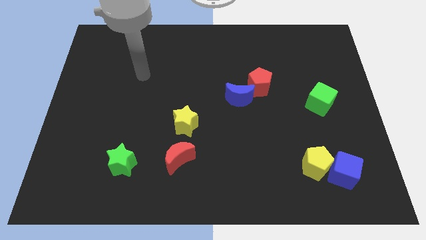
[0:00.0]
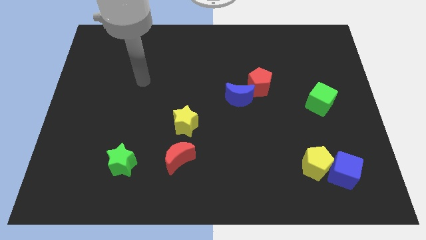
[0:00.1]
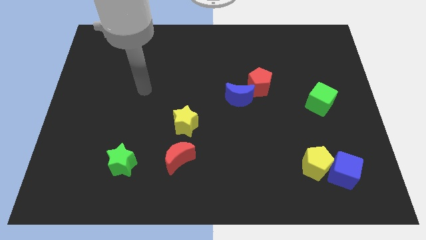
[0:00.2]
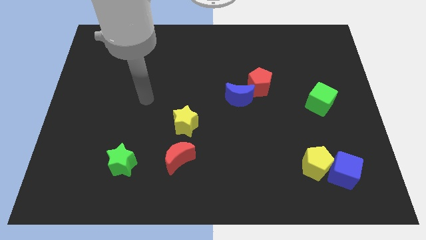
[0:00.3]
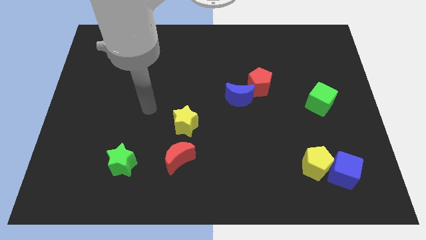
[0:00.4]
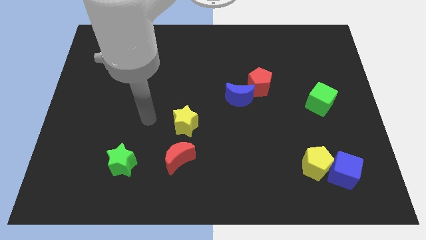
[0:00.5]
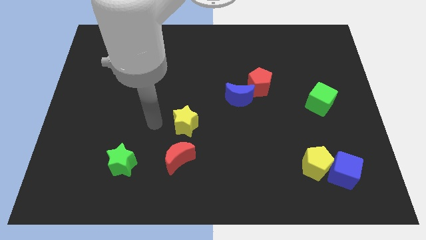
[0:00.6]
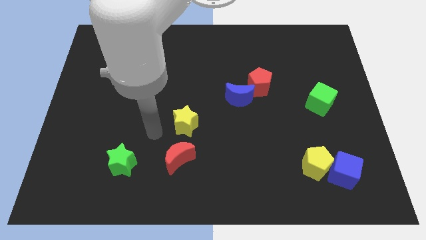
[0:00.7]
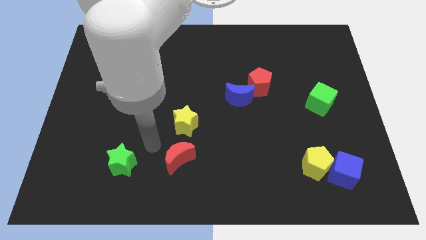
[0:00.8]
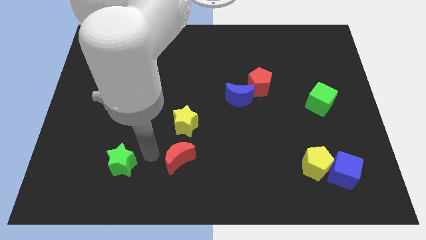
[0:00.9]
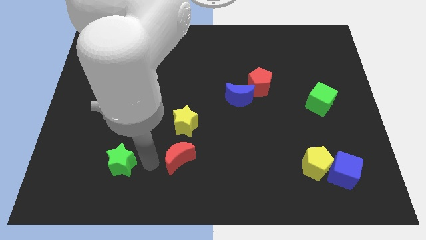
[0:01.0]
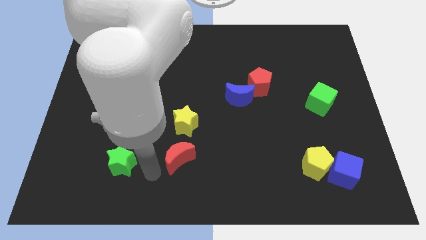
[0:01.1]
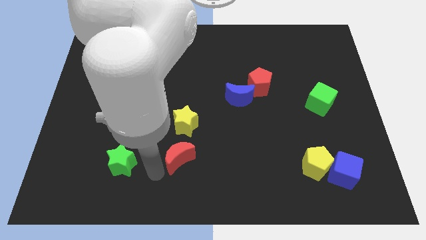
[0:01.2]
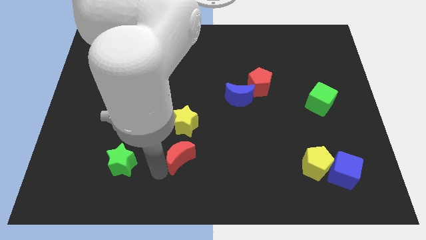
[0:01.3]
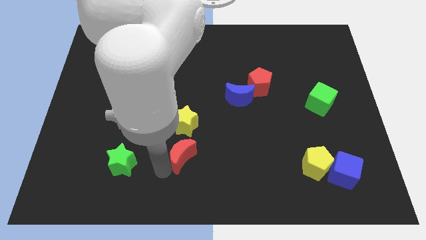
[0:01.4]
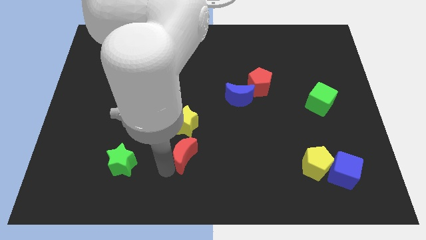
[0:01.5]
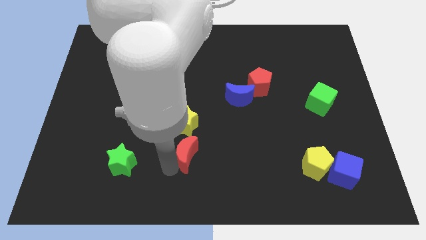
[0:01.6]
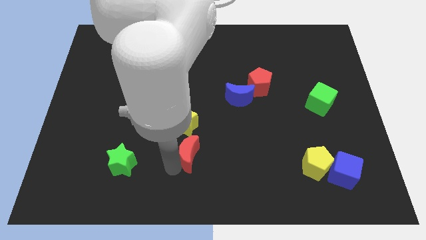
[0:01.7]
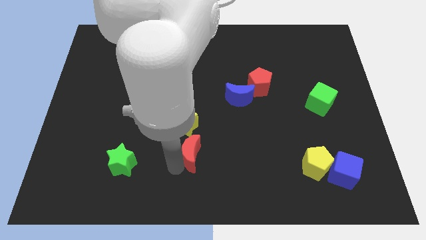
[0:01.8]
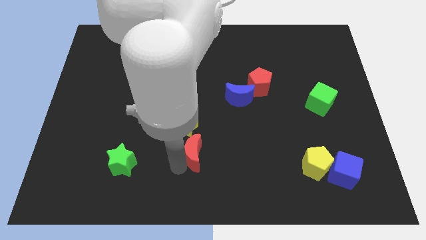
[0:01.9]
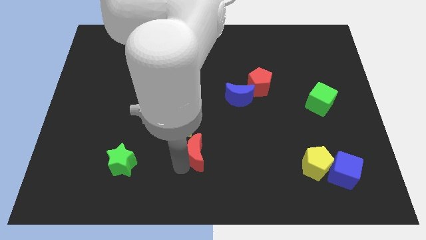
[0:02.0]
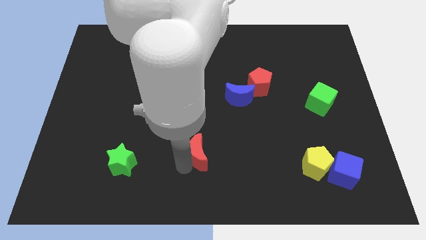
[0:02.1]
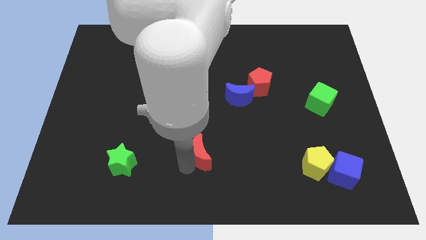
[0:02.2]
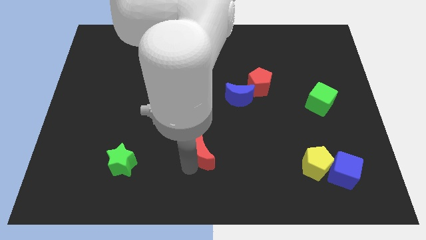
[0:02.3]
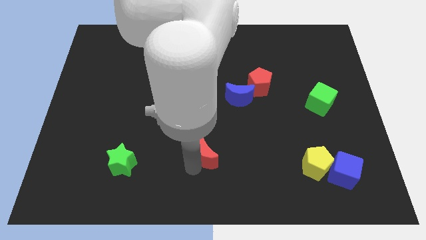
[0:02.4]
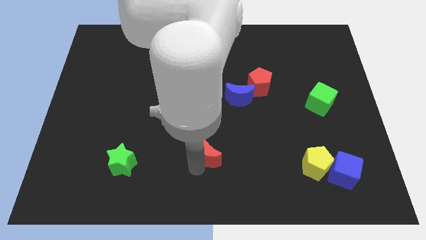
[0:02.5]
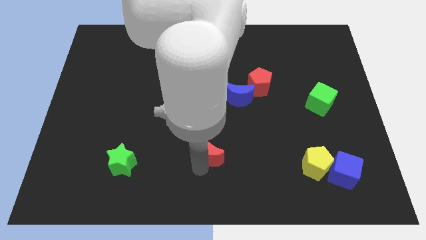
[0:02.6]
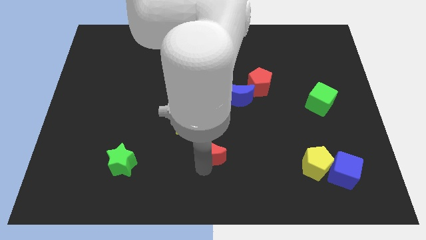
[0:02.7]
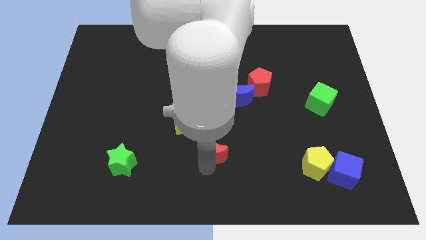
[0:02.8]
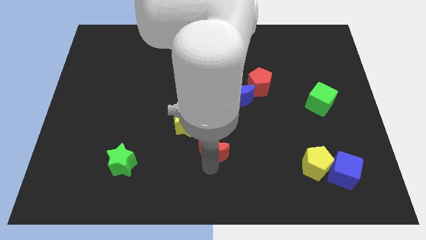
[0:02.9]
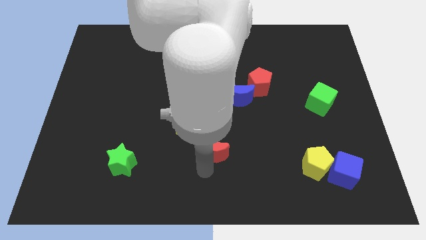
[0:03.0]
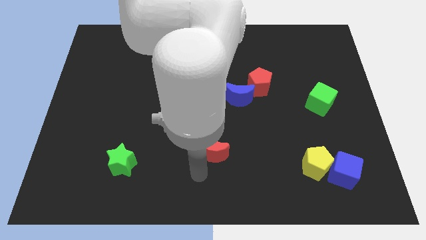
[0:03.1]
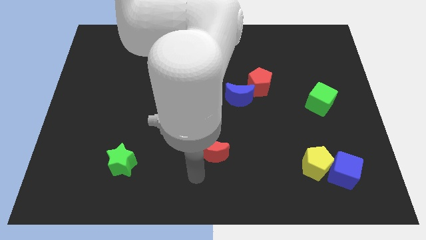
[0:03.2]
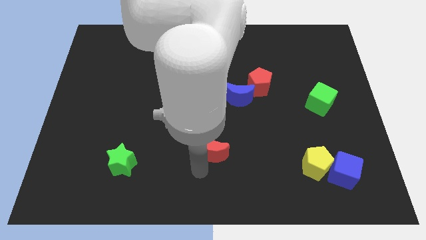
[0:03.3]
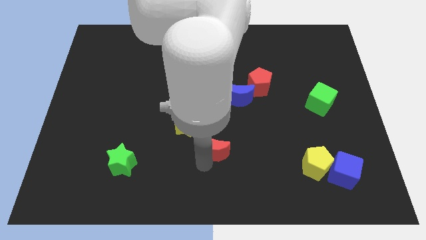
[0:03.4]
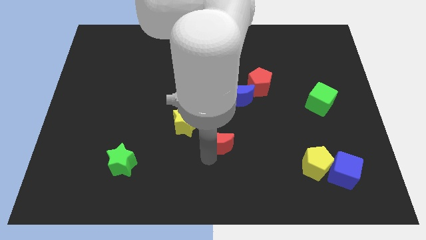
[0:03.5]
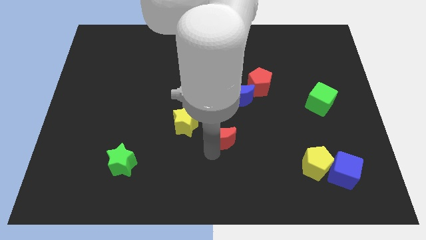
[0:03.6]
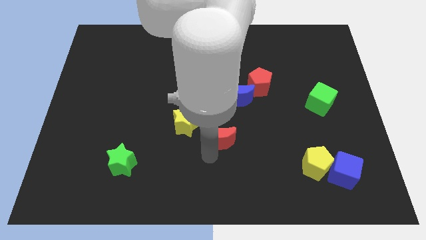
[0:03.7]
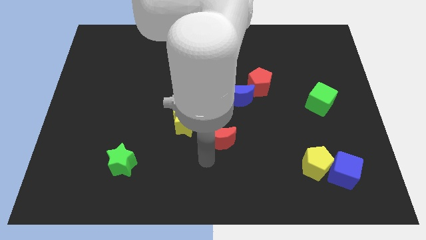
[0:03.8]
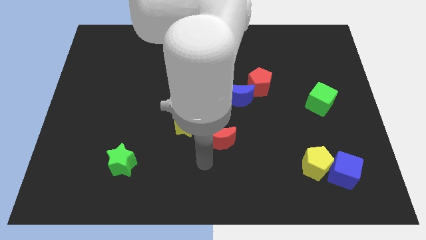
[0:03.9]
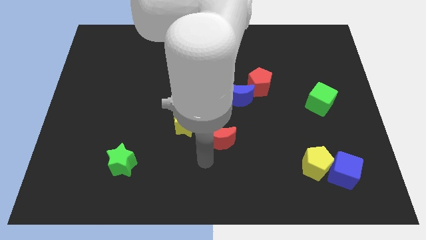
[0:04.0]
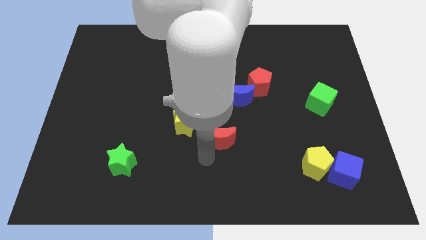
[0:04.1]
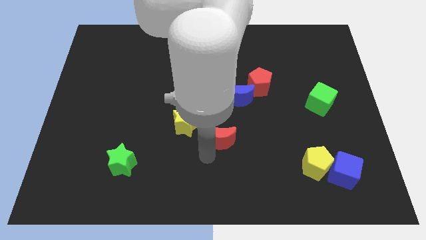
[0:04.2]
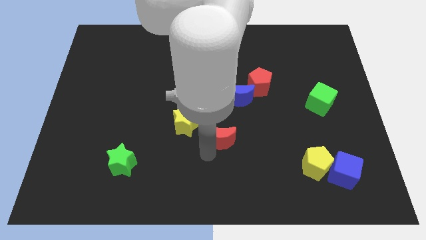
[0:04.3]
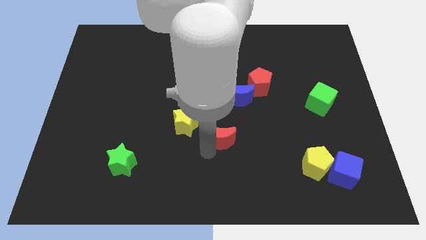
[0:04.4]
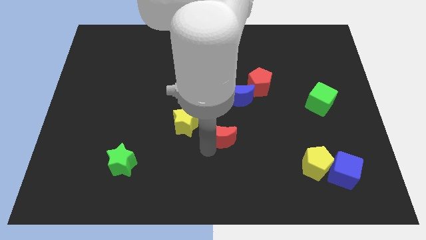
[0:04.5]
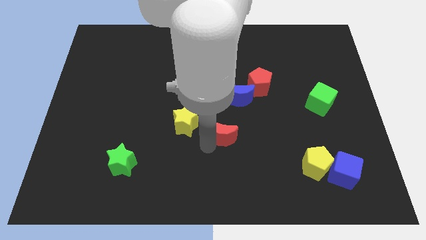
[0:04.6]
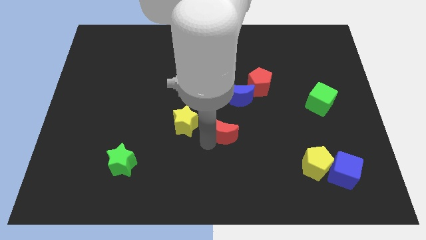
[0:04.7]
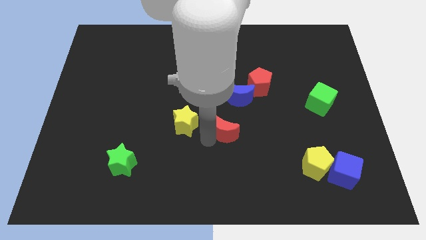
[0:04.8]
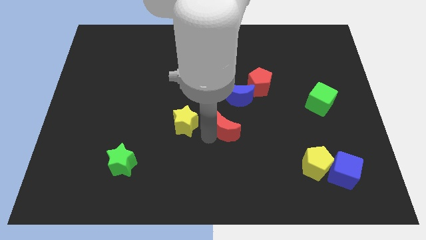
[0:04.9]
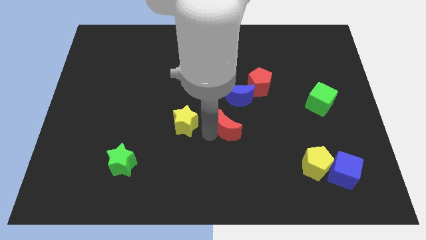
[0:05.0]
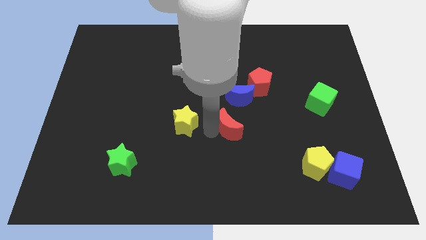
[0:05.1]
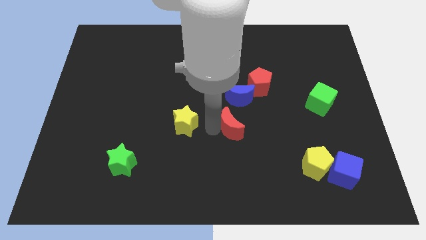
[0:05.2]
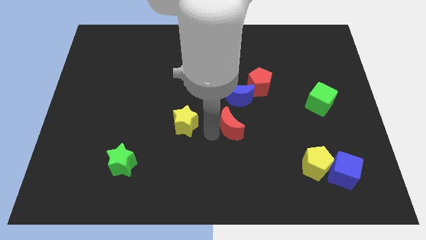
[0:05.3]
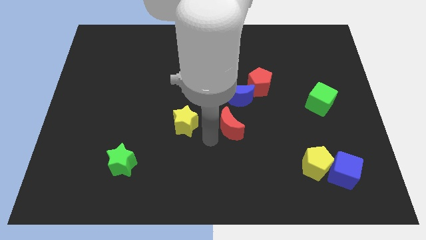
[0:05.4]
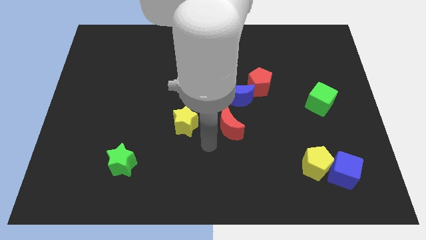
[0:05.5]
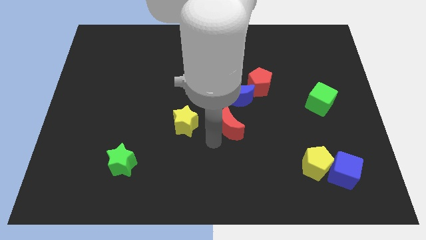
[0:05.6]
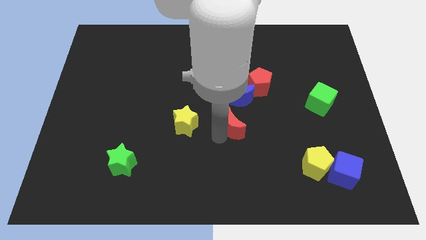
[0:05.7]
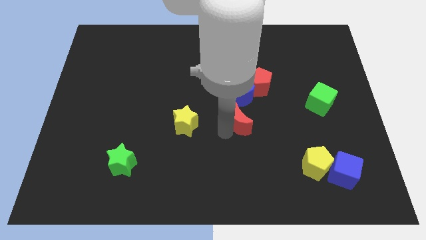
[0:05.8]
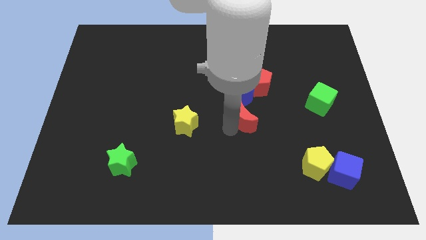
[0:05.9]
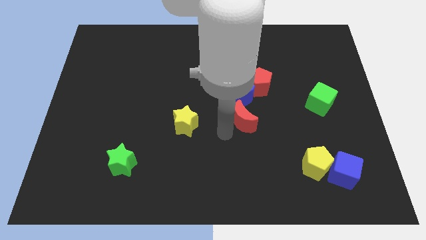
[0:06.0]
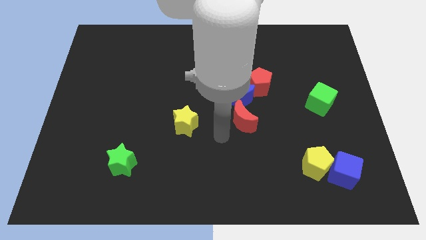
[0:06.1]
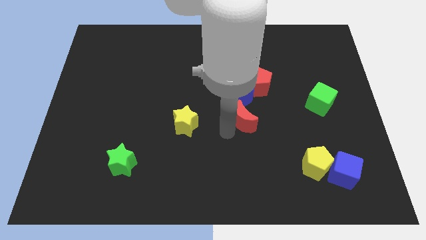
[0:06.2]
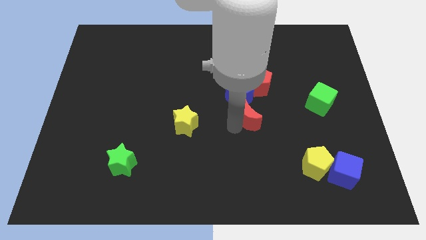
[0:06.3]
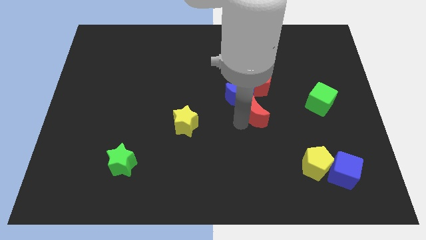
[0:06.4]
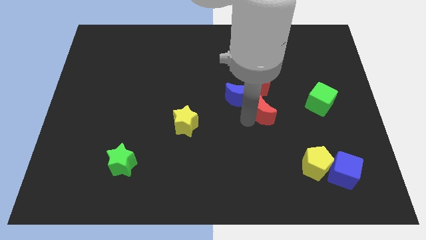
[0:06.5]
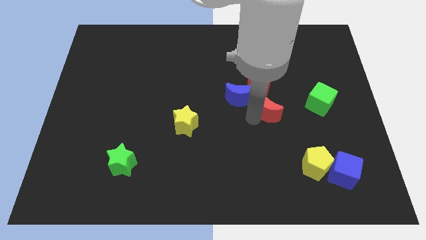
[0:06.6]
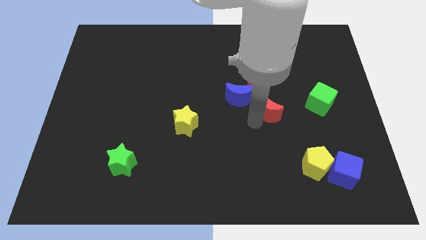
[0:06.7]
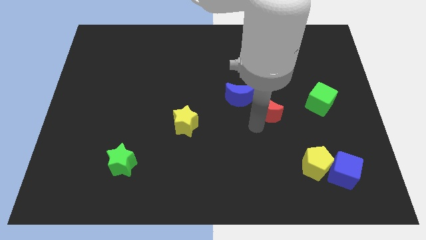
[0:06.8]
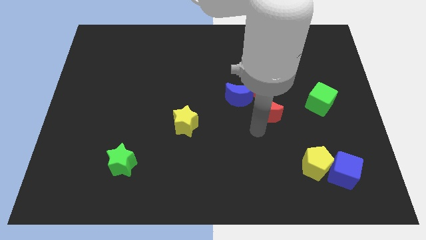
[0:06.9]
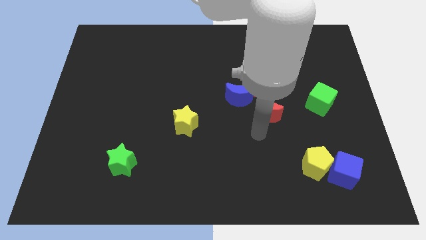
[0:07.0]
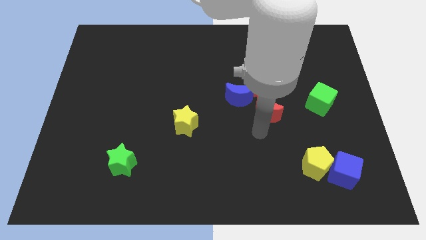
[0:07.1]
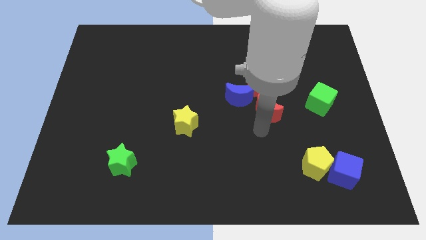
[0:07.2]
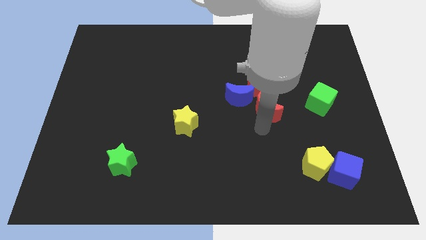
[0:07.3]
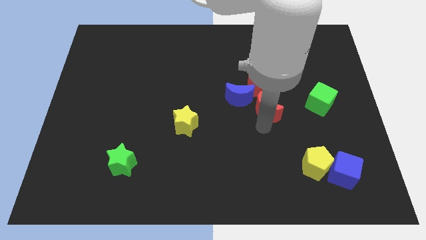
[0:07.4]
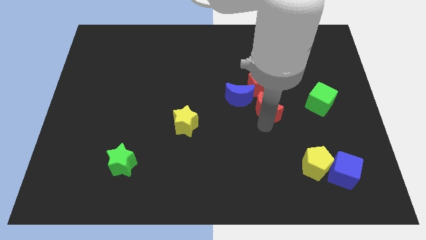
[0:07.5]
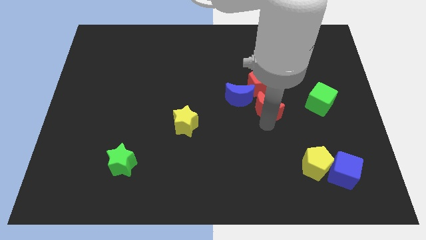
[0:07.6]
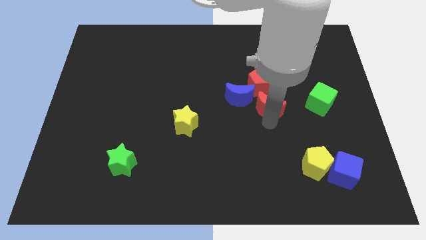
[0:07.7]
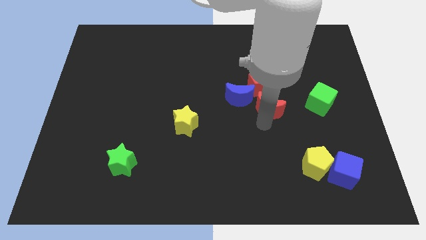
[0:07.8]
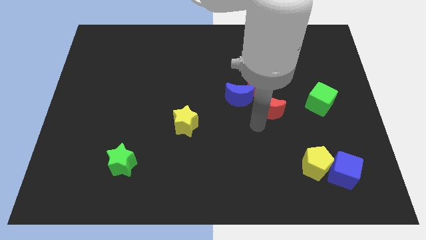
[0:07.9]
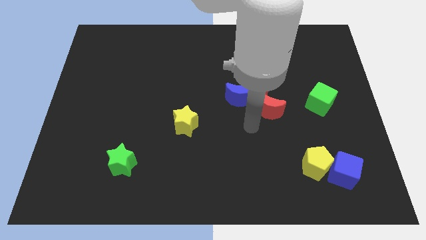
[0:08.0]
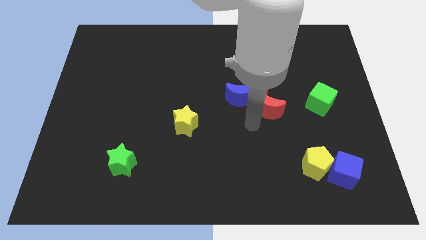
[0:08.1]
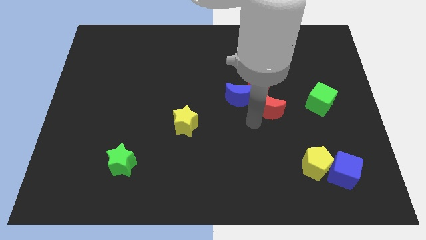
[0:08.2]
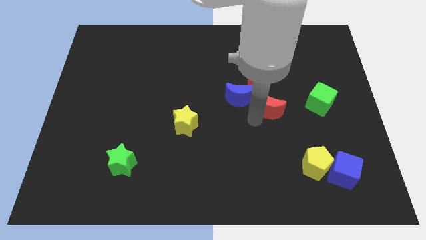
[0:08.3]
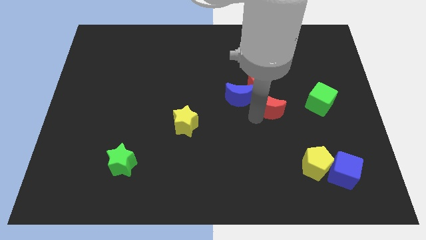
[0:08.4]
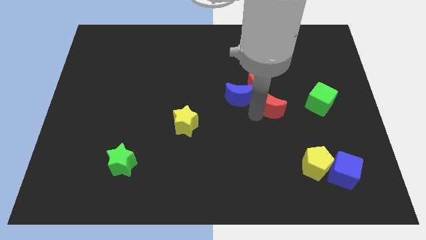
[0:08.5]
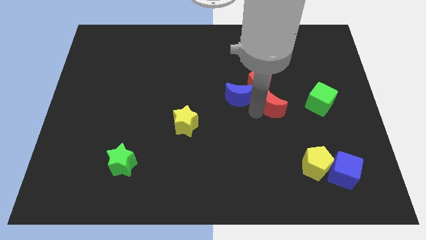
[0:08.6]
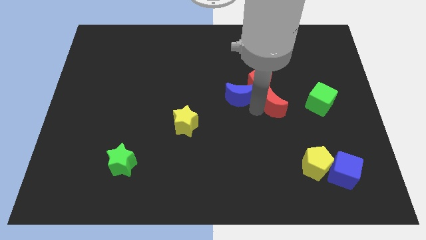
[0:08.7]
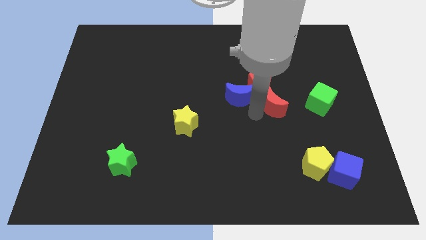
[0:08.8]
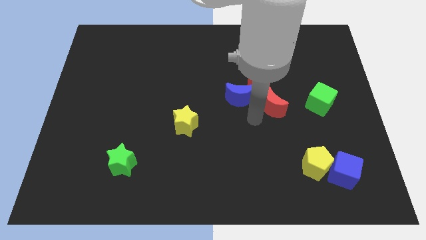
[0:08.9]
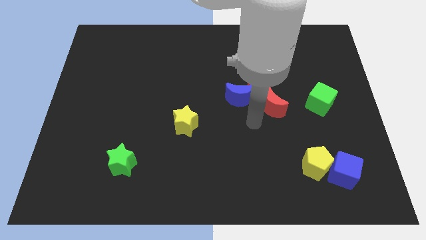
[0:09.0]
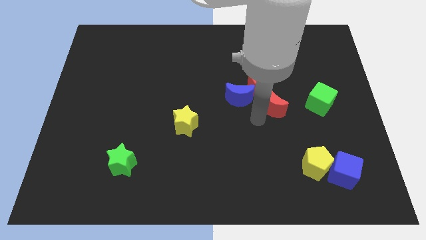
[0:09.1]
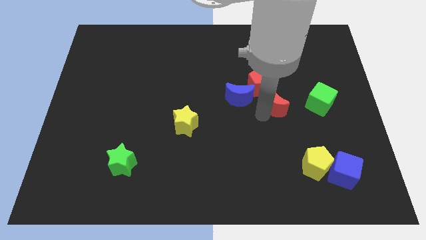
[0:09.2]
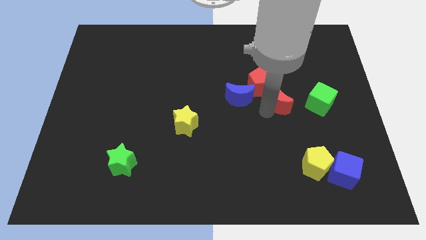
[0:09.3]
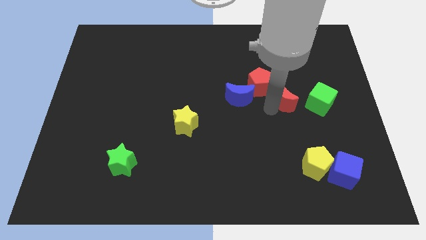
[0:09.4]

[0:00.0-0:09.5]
slide the red moon to the right side of the red pentagon
